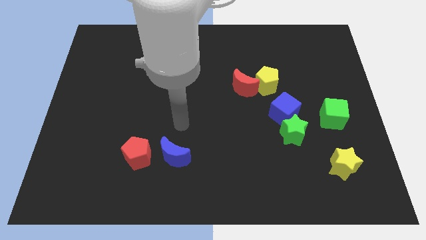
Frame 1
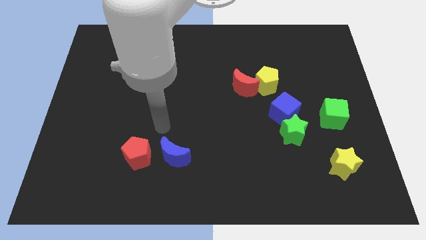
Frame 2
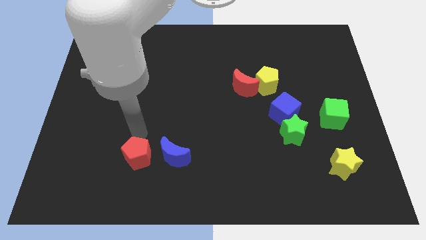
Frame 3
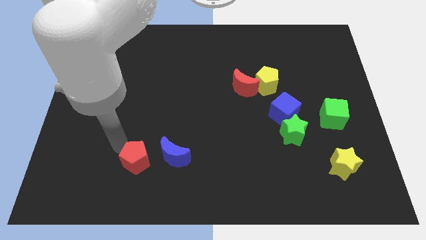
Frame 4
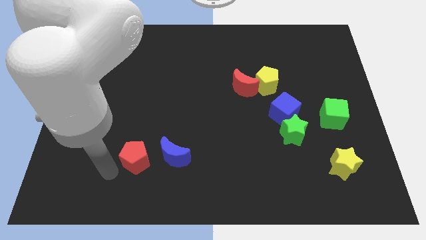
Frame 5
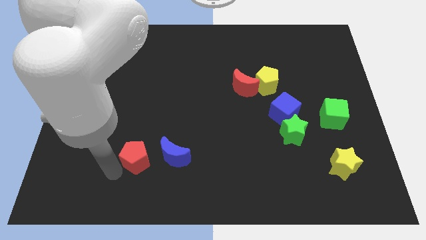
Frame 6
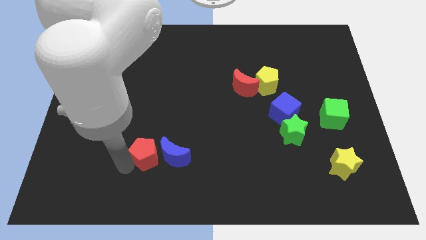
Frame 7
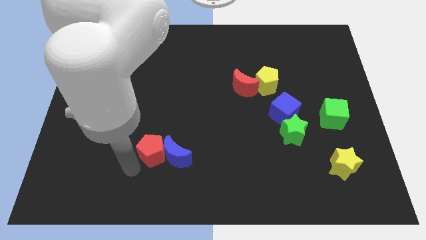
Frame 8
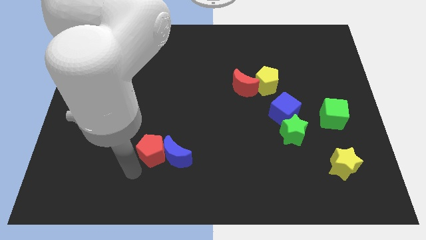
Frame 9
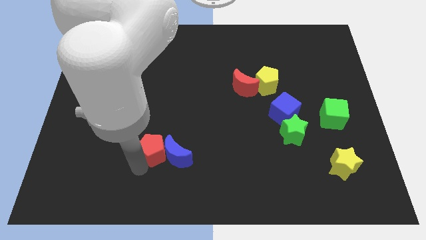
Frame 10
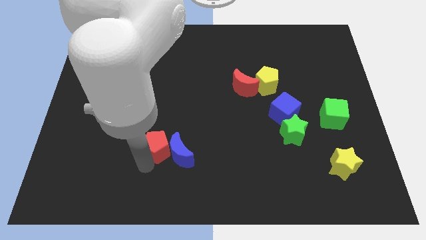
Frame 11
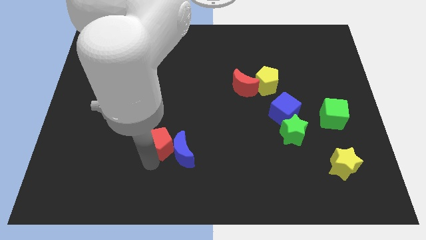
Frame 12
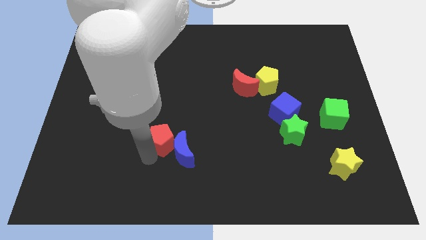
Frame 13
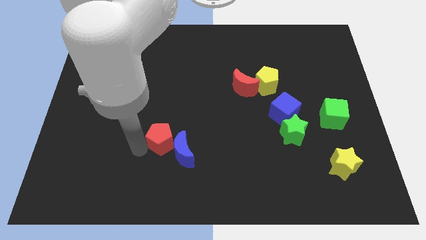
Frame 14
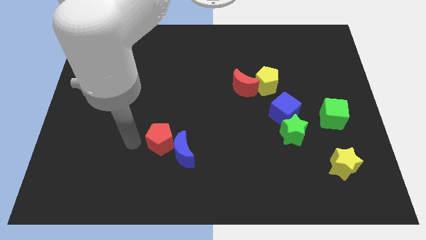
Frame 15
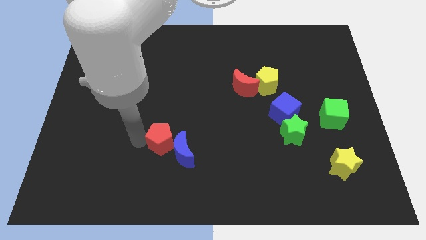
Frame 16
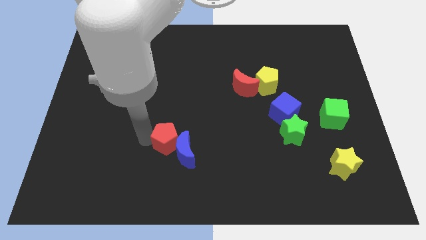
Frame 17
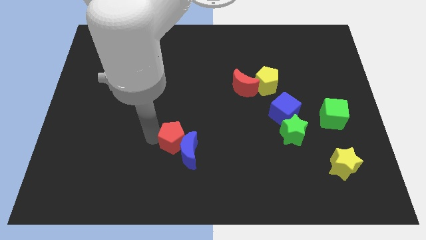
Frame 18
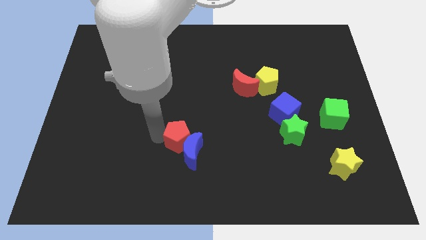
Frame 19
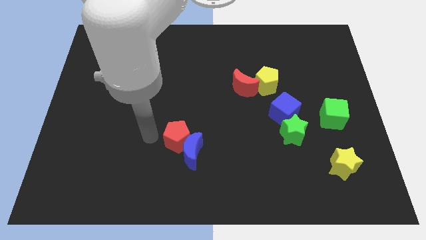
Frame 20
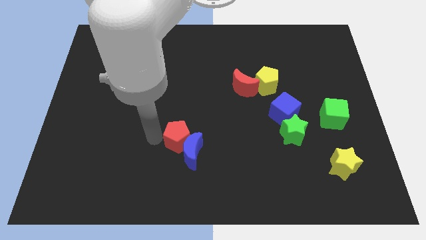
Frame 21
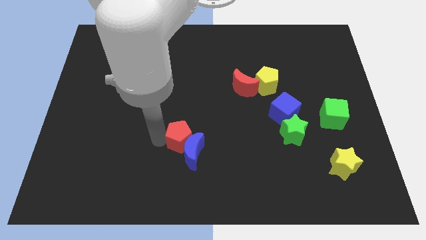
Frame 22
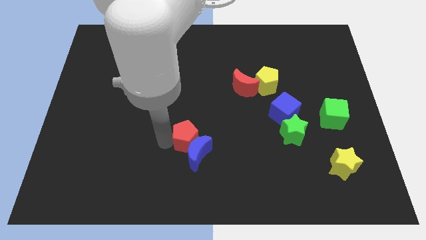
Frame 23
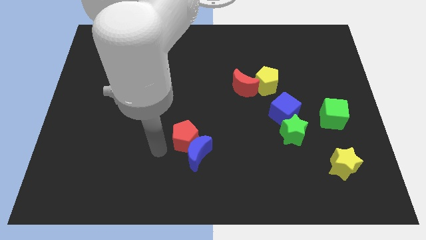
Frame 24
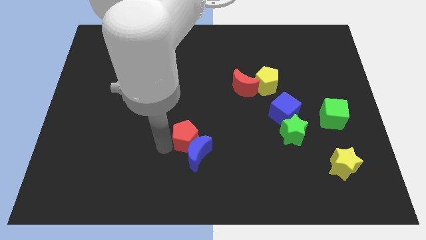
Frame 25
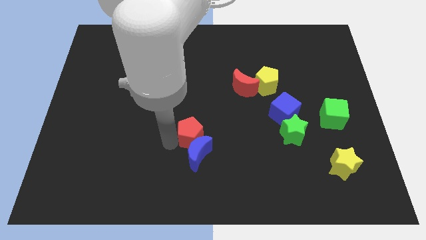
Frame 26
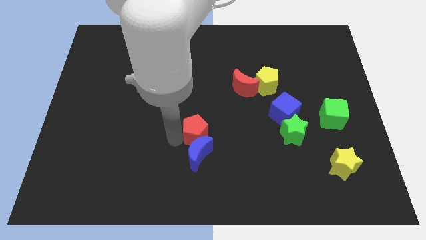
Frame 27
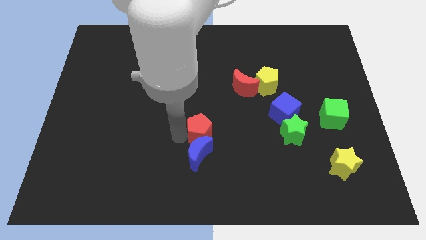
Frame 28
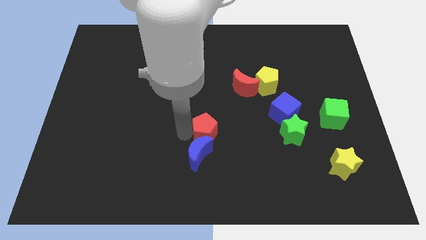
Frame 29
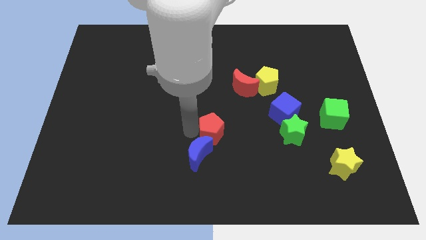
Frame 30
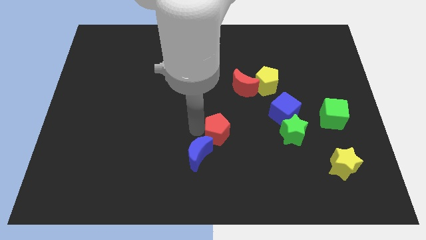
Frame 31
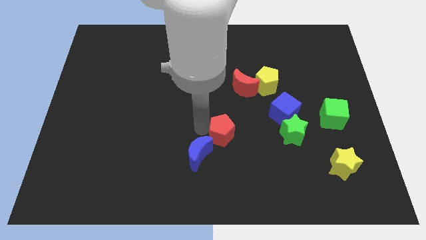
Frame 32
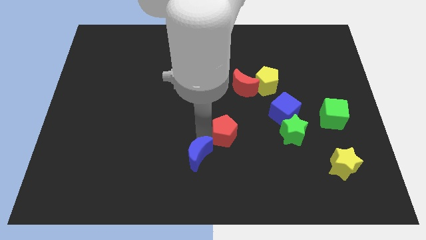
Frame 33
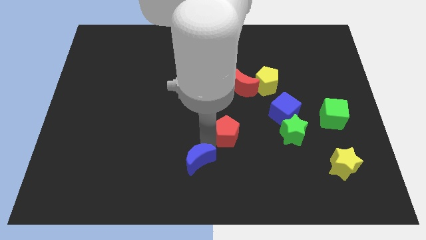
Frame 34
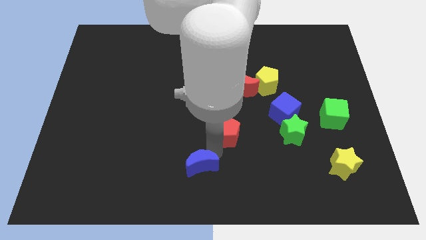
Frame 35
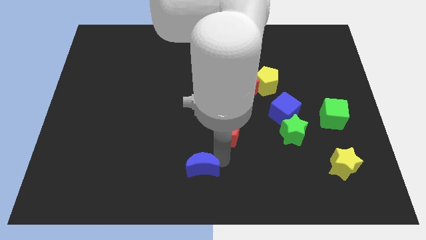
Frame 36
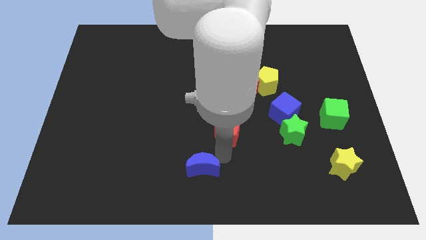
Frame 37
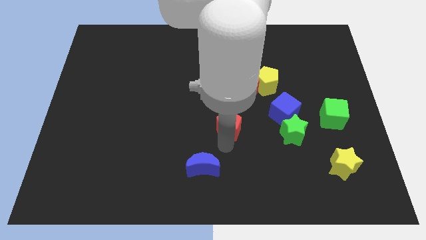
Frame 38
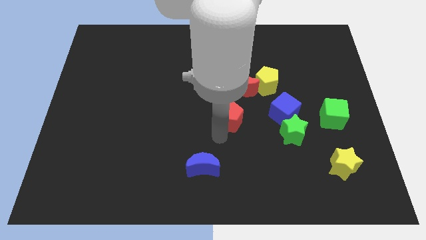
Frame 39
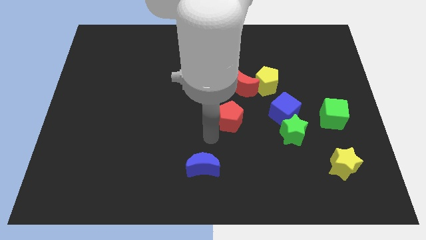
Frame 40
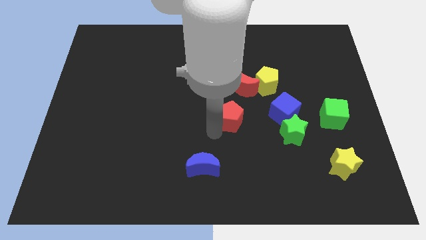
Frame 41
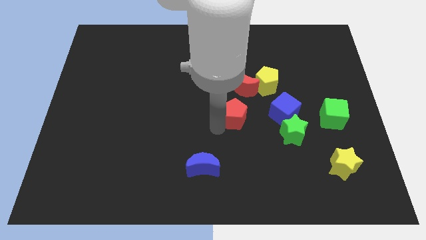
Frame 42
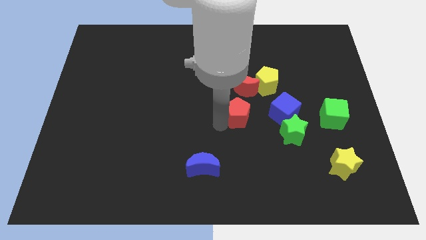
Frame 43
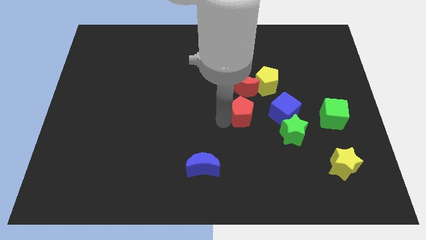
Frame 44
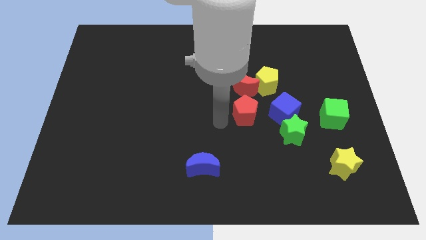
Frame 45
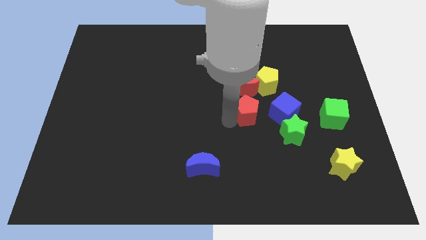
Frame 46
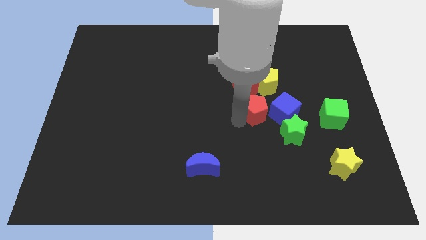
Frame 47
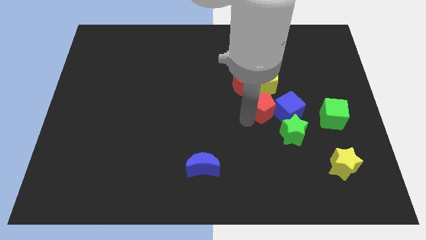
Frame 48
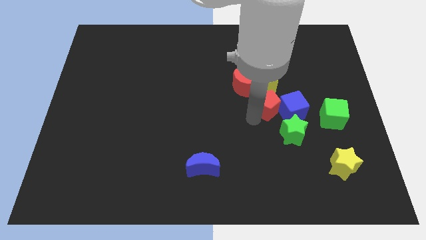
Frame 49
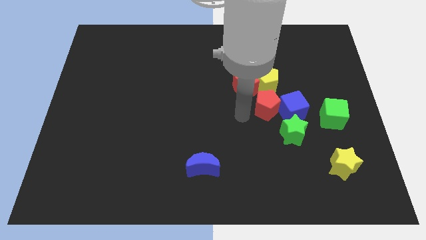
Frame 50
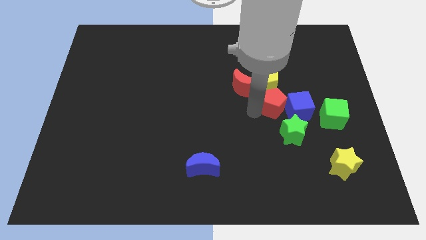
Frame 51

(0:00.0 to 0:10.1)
move the red pentagon diagonally down and to the right of the yellow pentagon

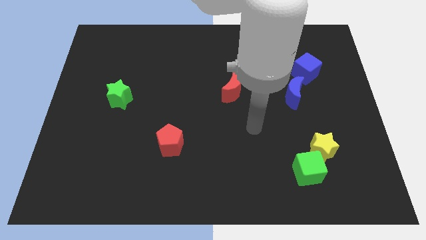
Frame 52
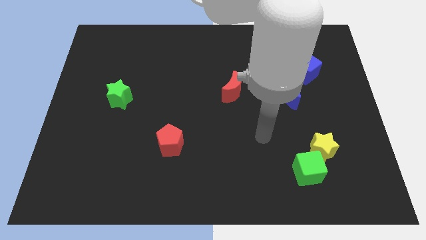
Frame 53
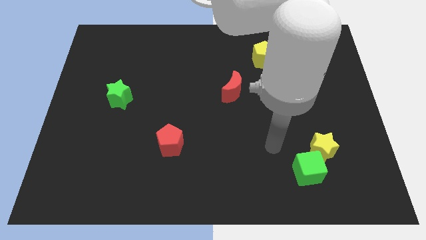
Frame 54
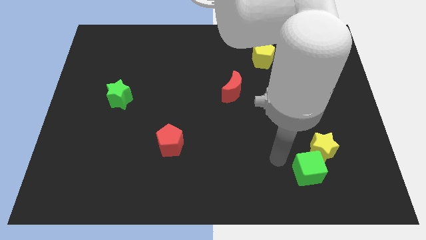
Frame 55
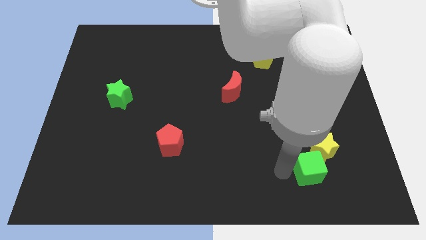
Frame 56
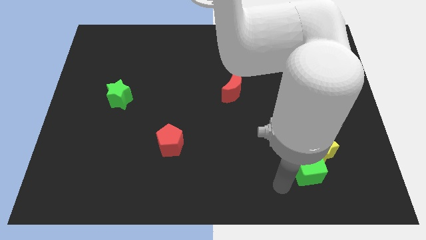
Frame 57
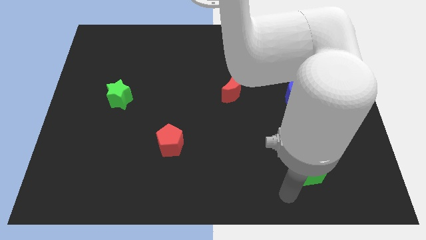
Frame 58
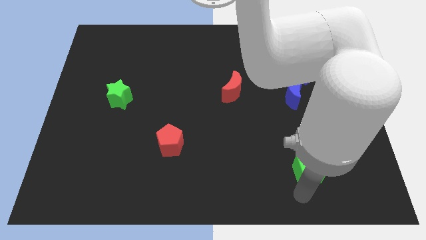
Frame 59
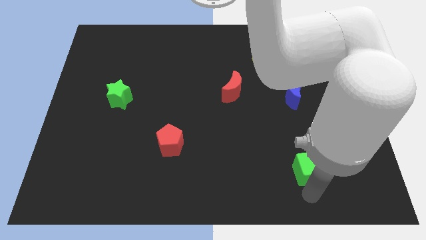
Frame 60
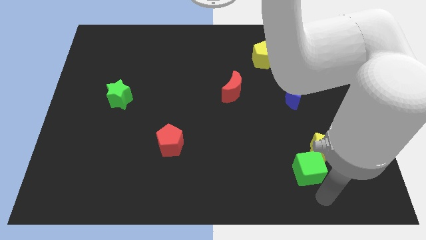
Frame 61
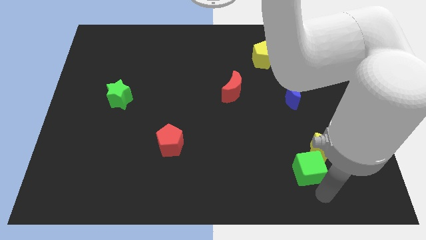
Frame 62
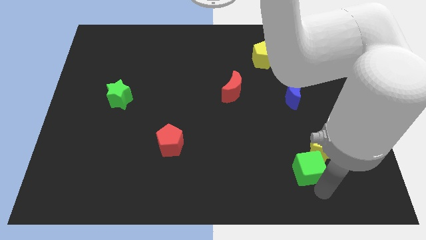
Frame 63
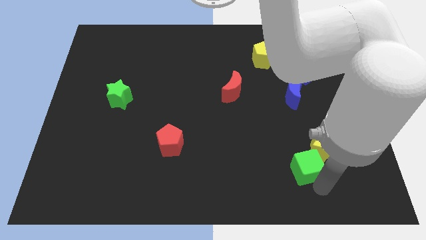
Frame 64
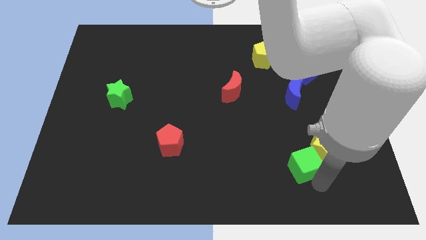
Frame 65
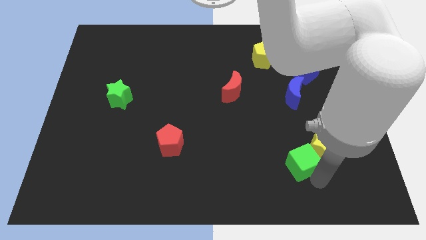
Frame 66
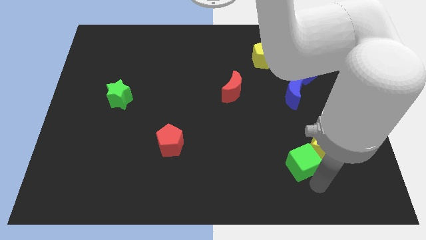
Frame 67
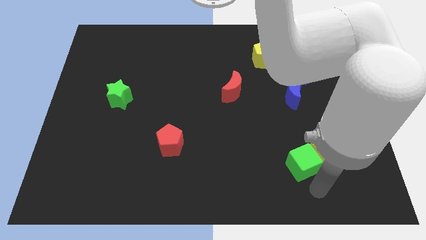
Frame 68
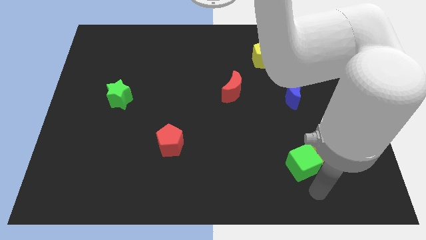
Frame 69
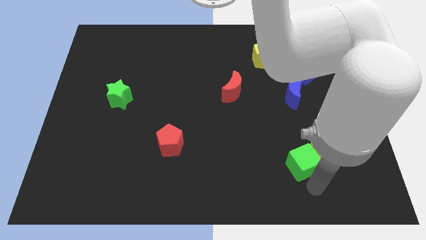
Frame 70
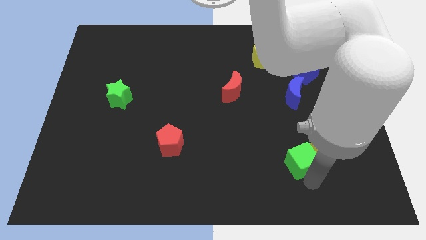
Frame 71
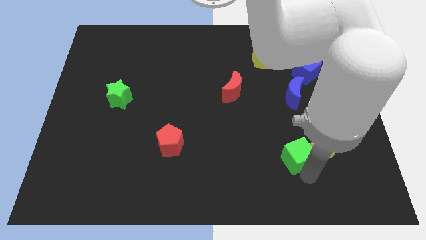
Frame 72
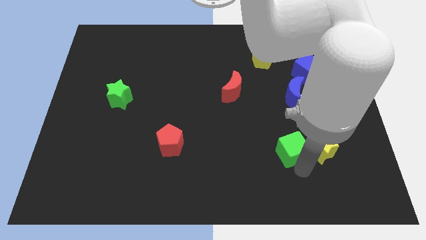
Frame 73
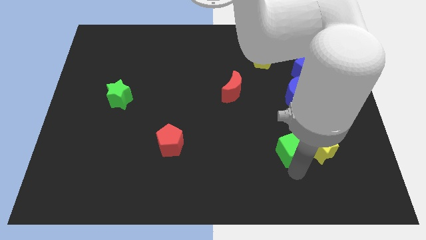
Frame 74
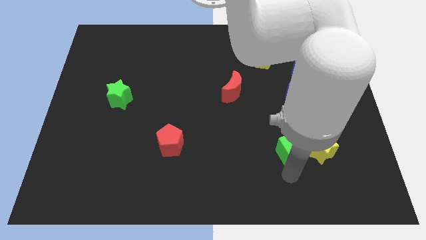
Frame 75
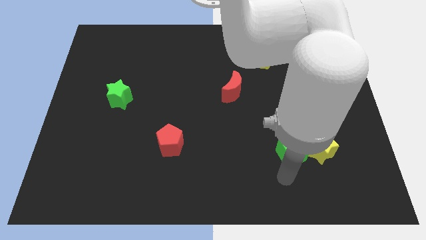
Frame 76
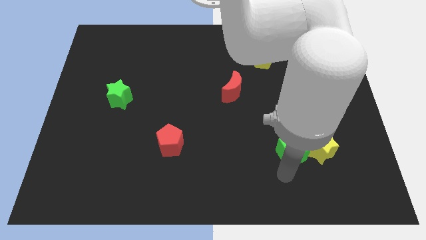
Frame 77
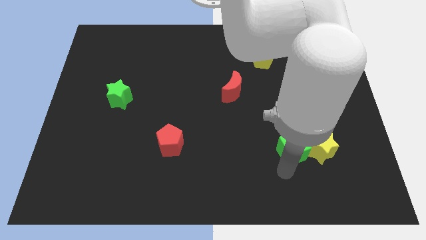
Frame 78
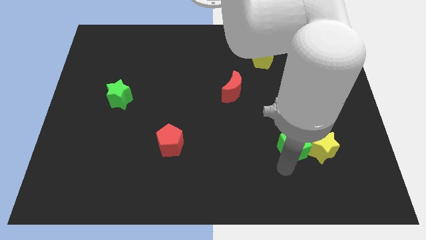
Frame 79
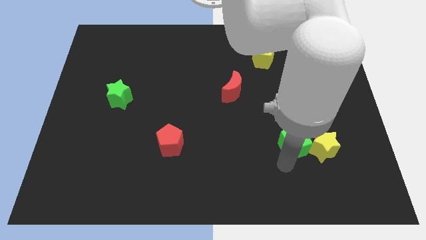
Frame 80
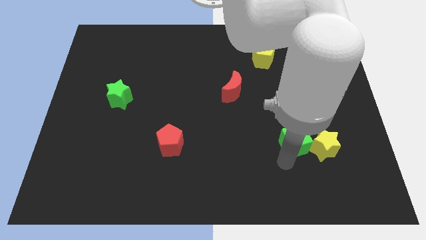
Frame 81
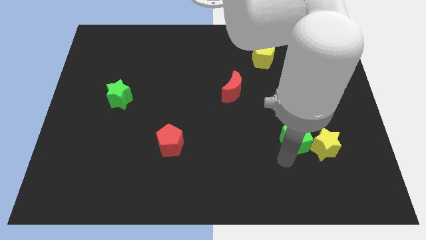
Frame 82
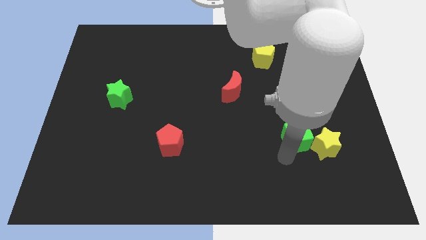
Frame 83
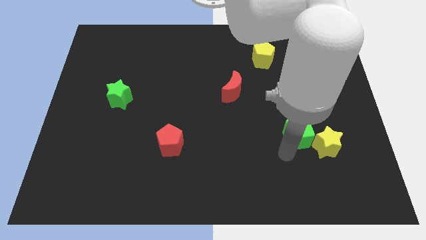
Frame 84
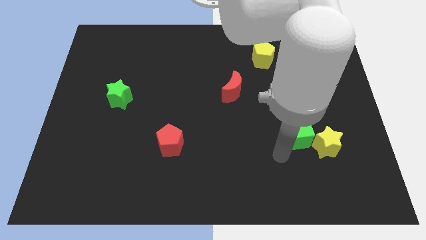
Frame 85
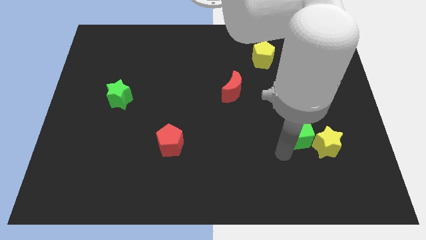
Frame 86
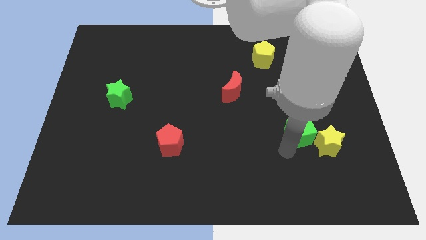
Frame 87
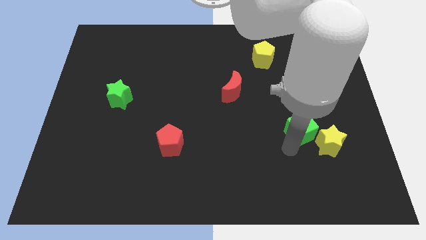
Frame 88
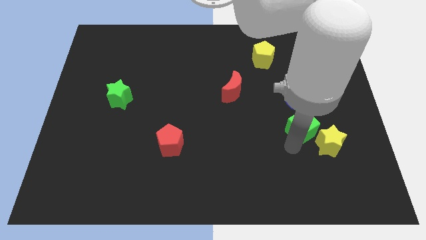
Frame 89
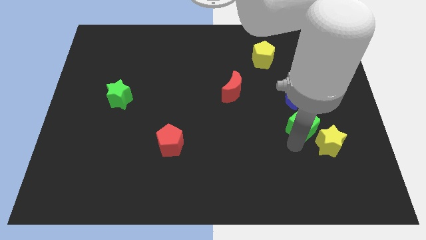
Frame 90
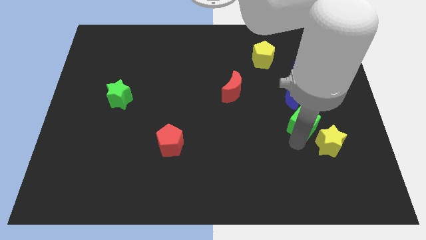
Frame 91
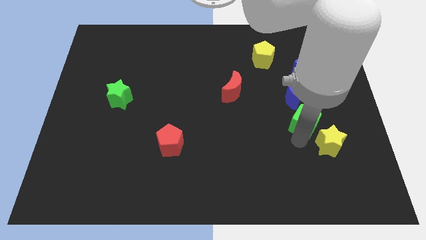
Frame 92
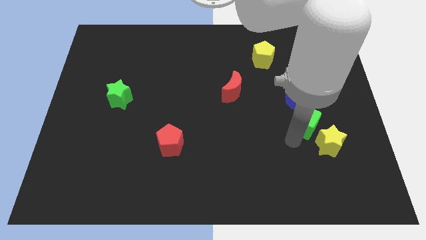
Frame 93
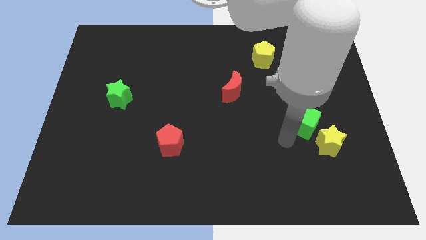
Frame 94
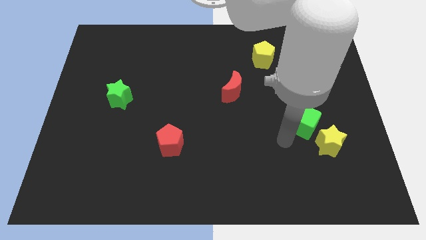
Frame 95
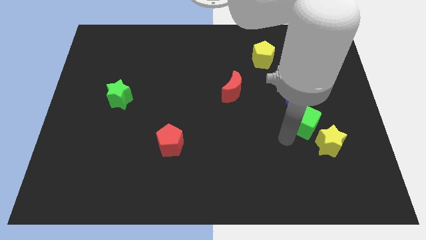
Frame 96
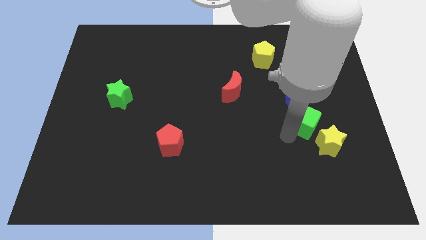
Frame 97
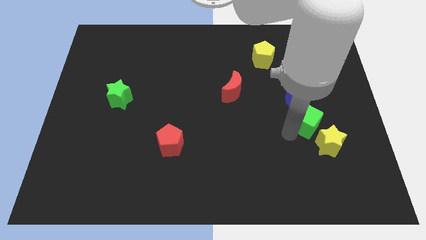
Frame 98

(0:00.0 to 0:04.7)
put the green cube to the bottom right of the blue moon
